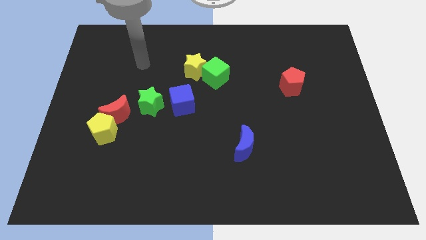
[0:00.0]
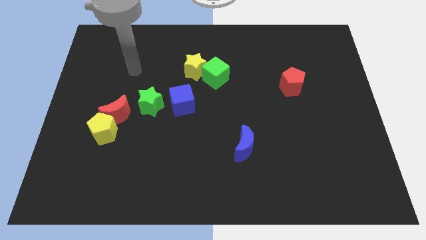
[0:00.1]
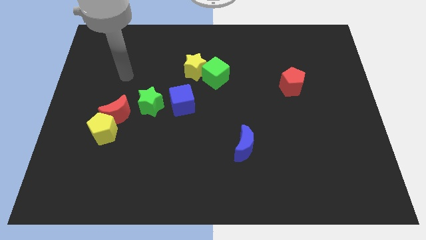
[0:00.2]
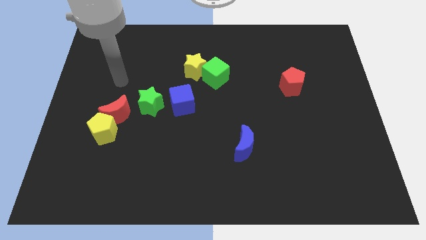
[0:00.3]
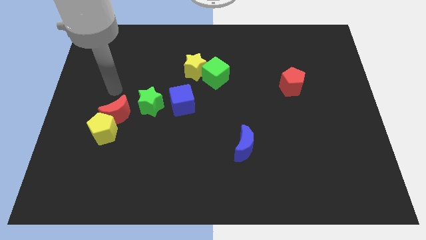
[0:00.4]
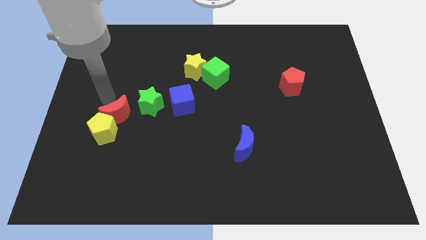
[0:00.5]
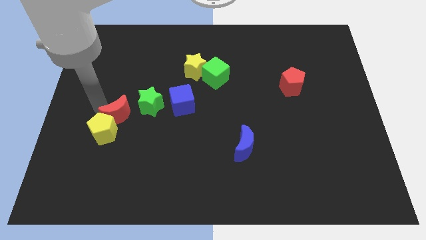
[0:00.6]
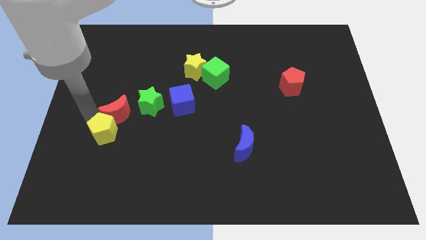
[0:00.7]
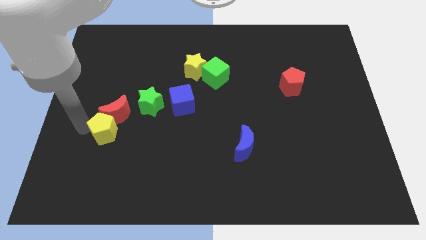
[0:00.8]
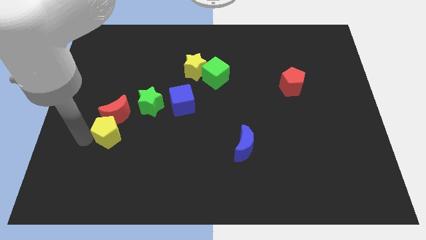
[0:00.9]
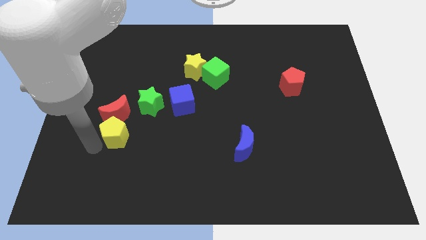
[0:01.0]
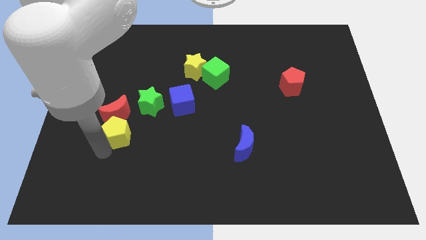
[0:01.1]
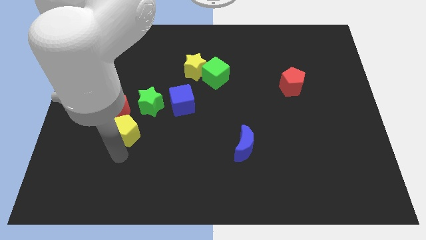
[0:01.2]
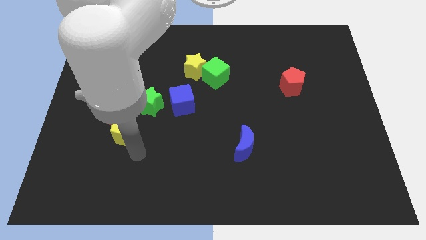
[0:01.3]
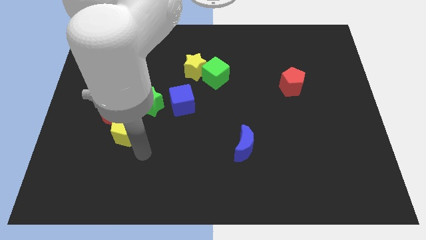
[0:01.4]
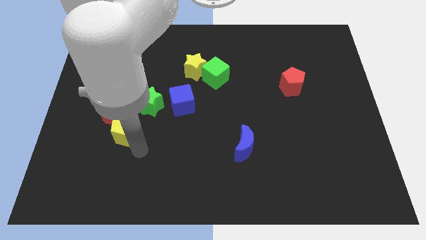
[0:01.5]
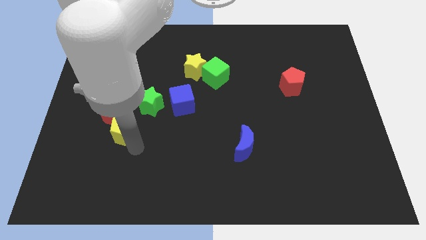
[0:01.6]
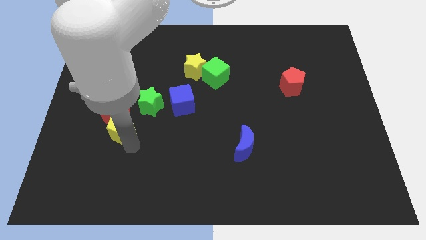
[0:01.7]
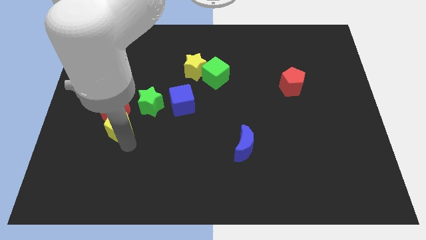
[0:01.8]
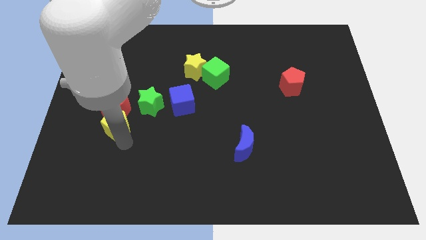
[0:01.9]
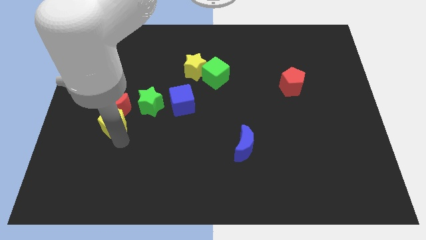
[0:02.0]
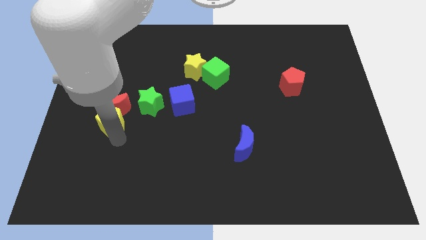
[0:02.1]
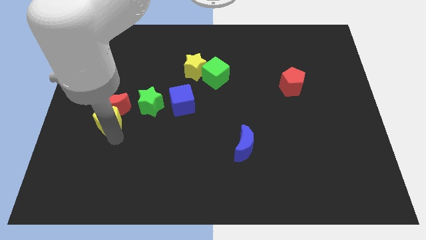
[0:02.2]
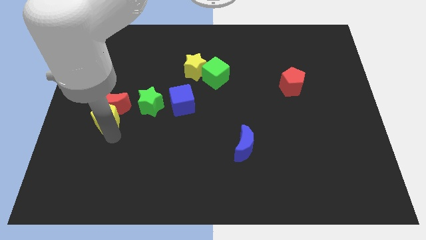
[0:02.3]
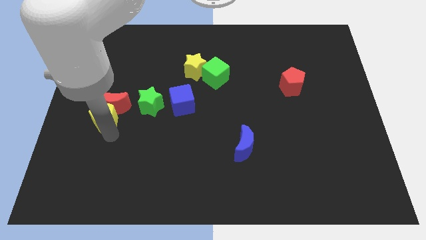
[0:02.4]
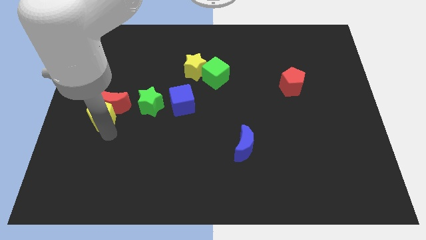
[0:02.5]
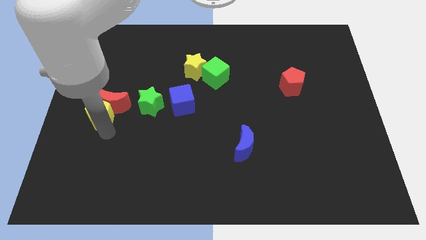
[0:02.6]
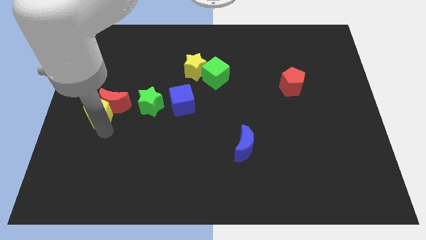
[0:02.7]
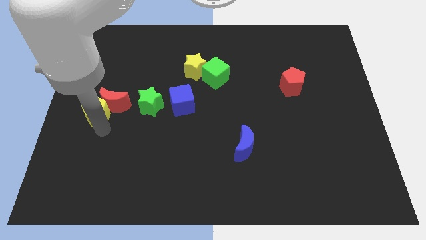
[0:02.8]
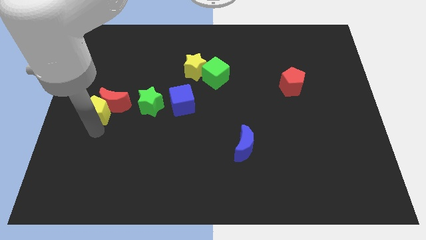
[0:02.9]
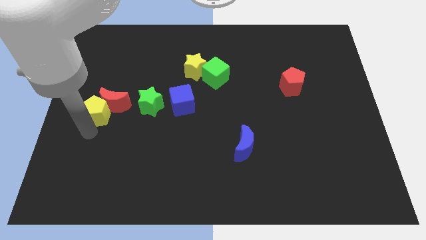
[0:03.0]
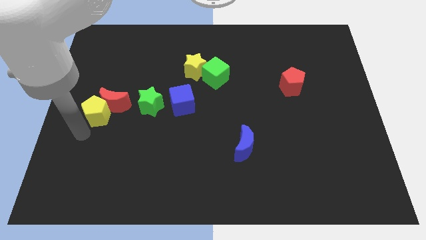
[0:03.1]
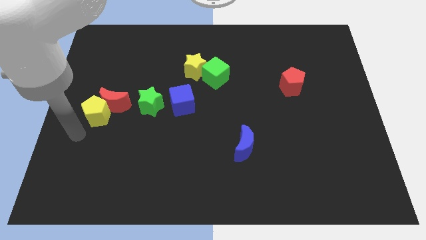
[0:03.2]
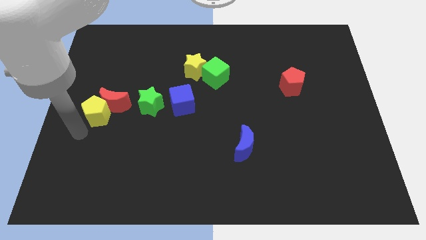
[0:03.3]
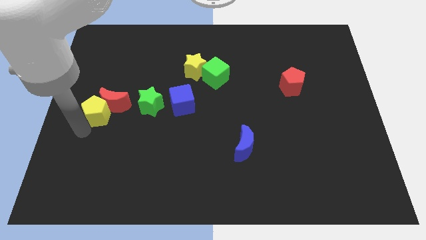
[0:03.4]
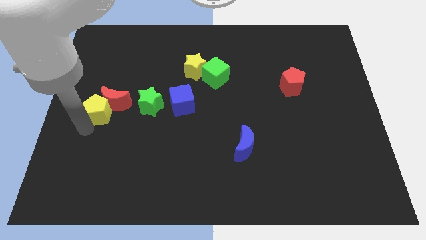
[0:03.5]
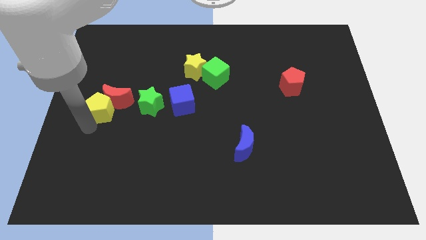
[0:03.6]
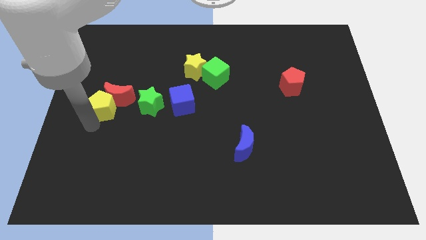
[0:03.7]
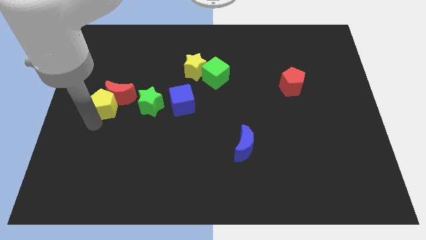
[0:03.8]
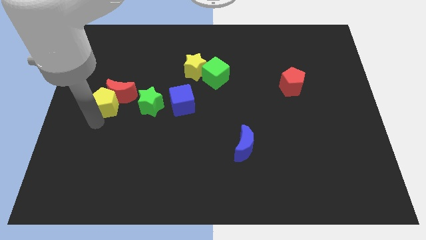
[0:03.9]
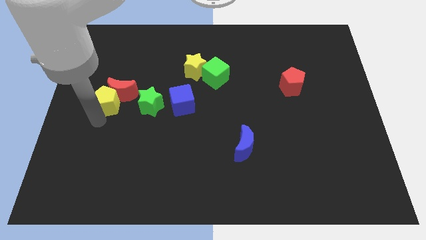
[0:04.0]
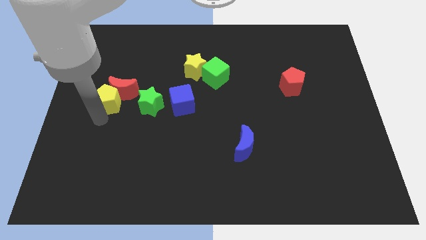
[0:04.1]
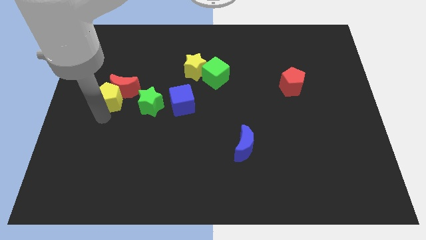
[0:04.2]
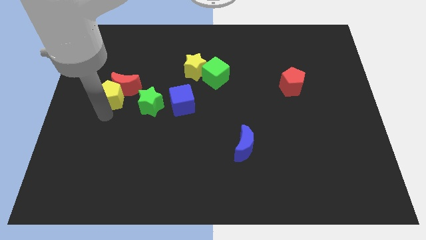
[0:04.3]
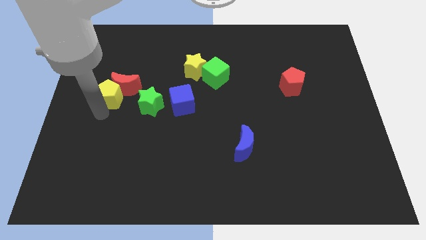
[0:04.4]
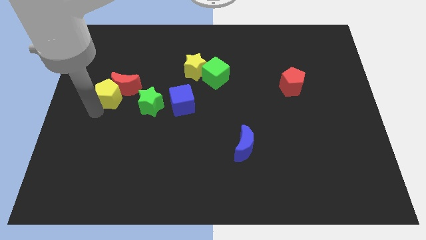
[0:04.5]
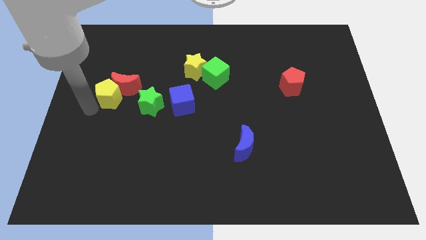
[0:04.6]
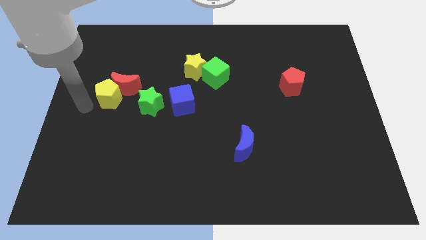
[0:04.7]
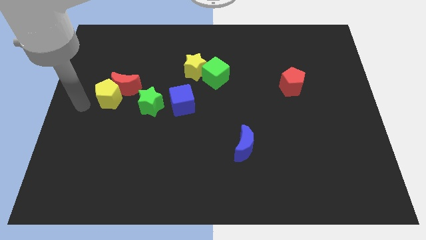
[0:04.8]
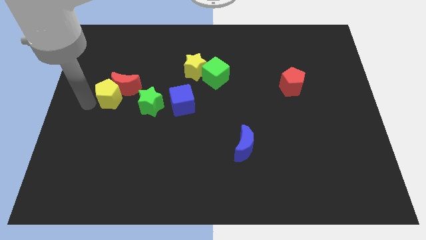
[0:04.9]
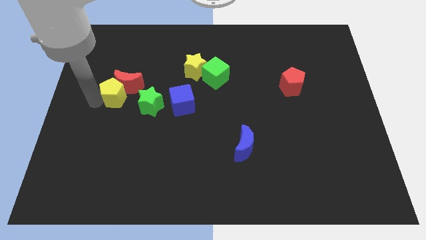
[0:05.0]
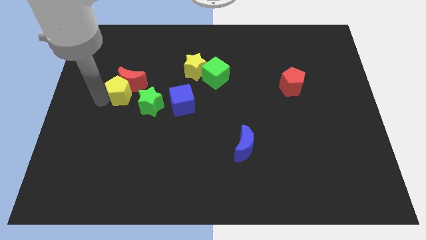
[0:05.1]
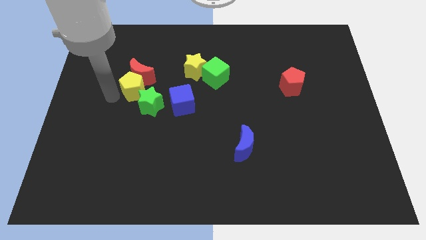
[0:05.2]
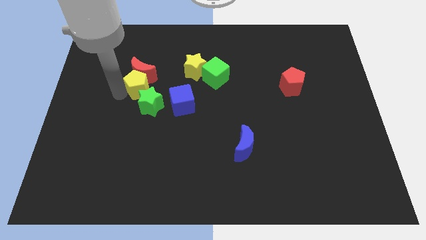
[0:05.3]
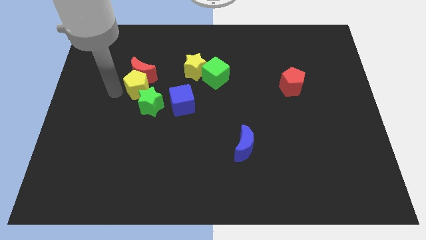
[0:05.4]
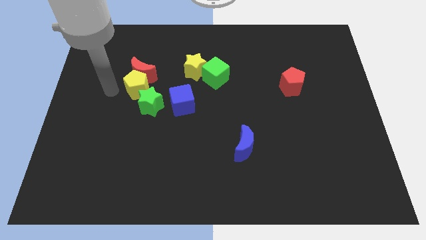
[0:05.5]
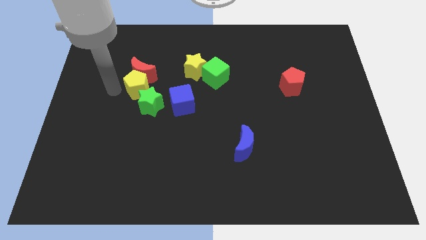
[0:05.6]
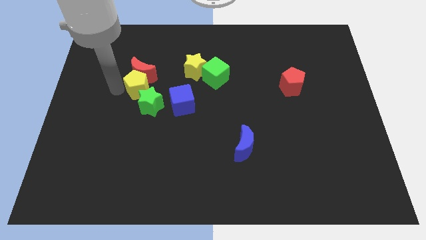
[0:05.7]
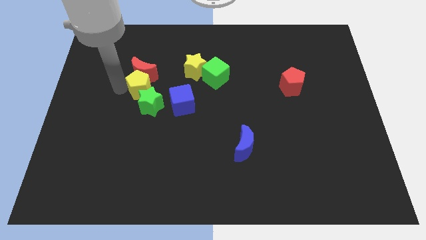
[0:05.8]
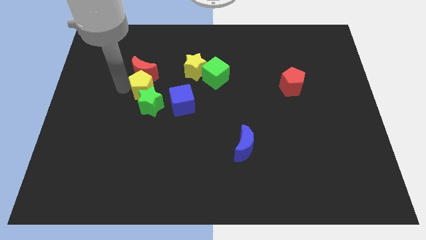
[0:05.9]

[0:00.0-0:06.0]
put the yellow pentagon diagonally up and to the left of the blue cube
